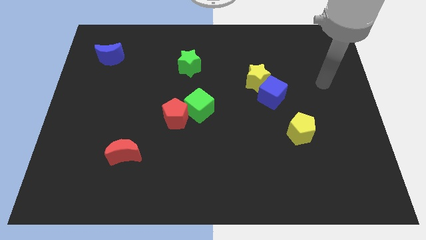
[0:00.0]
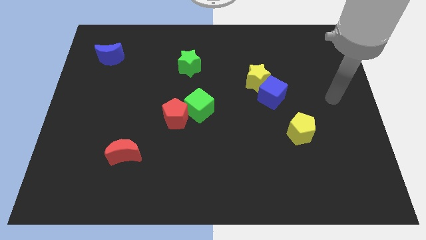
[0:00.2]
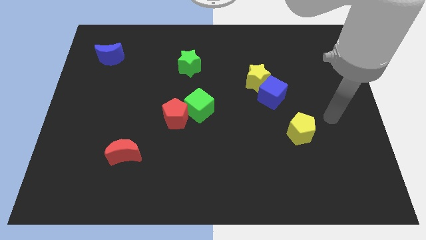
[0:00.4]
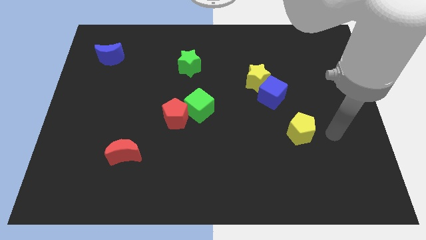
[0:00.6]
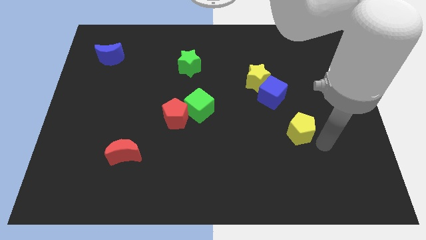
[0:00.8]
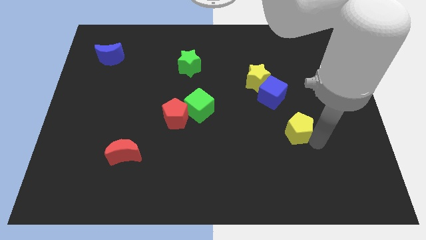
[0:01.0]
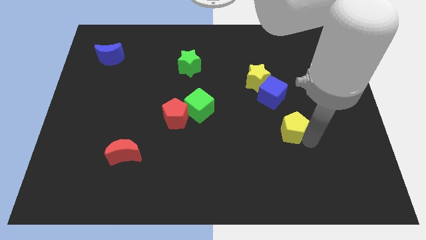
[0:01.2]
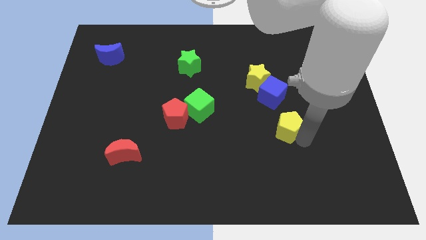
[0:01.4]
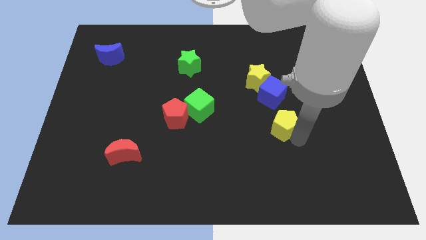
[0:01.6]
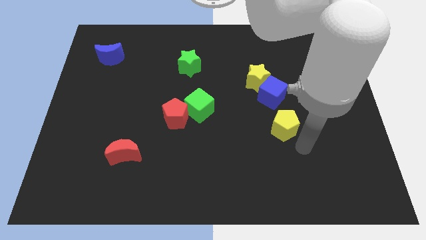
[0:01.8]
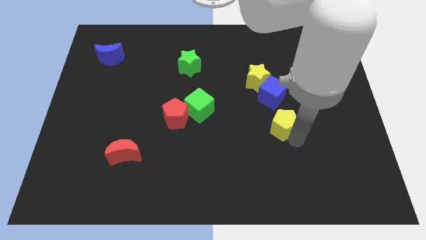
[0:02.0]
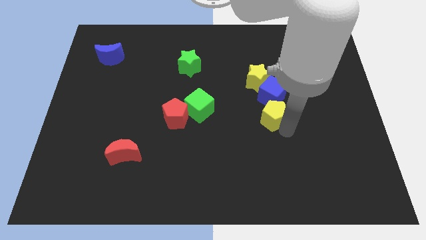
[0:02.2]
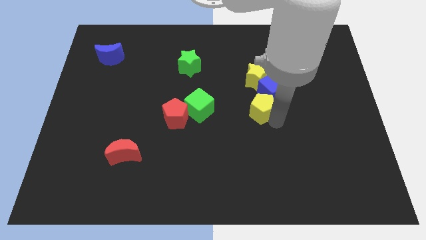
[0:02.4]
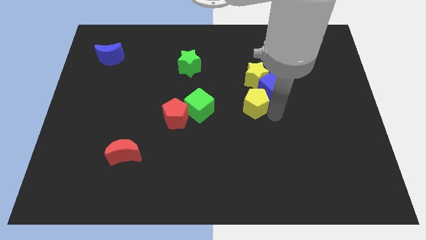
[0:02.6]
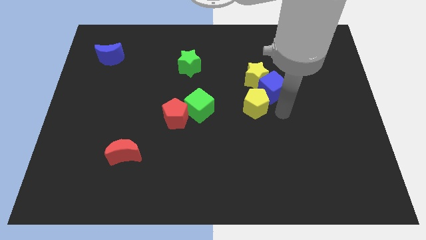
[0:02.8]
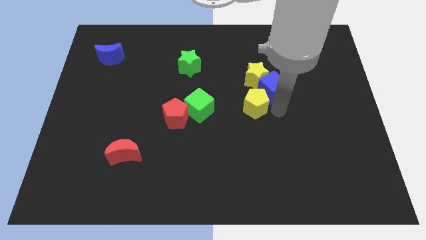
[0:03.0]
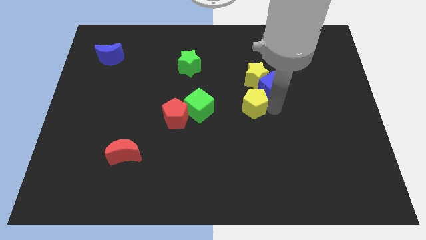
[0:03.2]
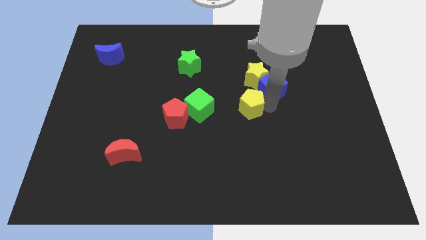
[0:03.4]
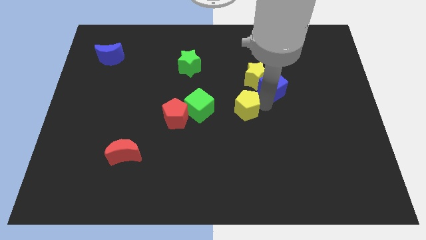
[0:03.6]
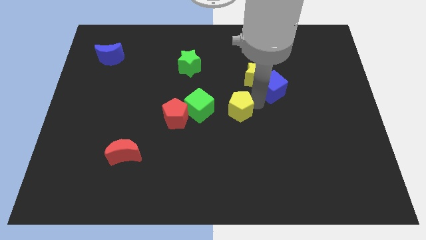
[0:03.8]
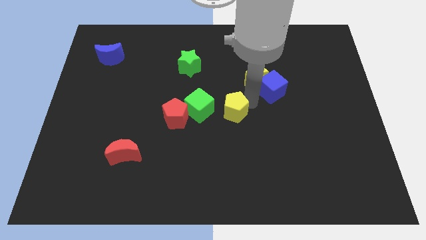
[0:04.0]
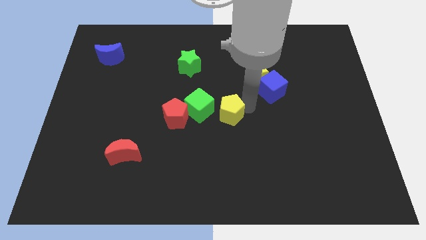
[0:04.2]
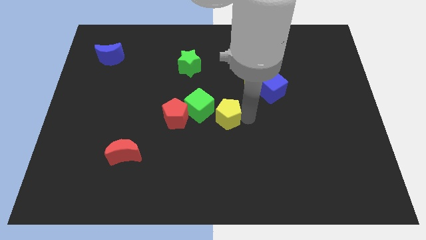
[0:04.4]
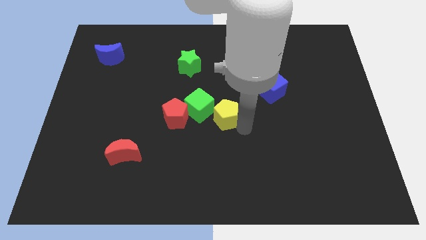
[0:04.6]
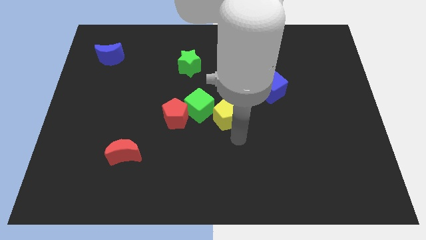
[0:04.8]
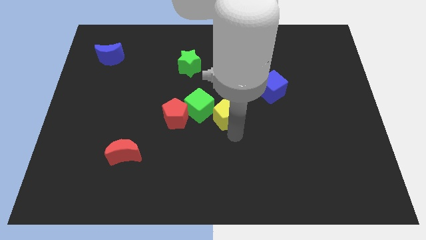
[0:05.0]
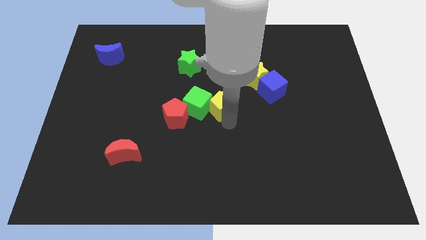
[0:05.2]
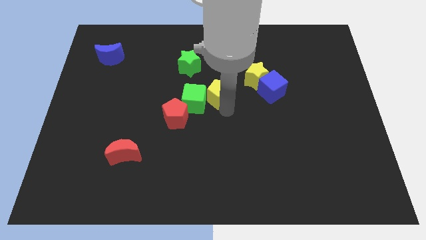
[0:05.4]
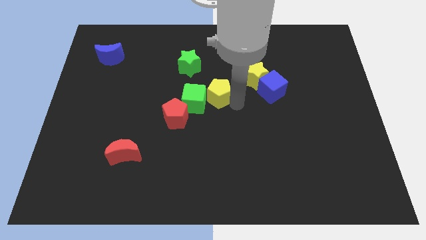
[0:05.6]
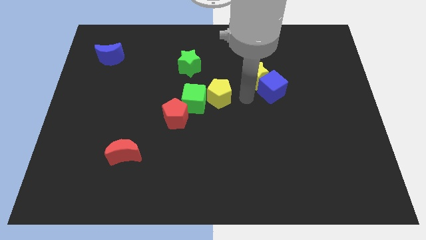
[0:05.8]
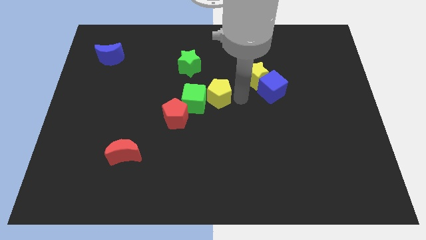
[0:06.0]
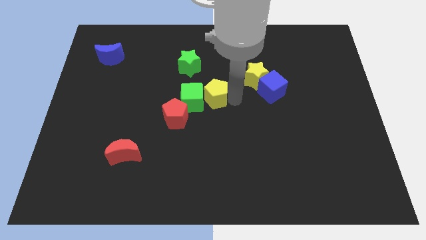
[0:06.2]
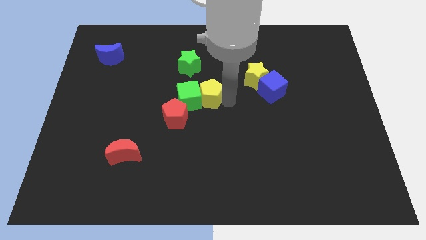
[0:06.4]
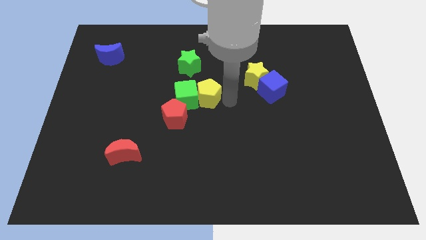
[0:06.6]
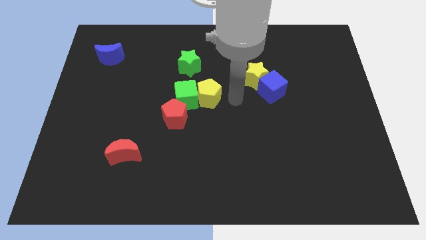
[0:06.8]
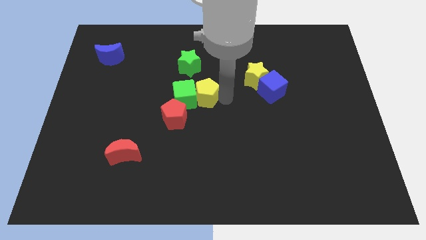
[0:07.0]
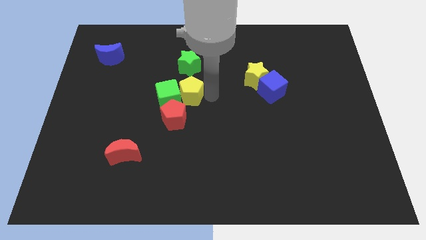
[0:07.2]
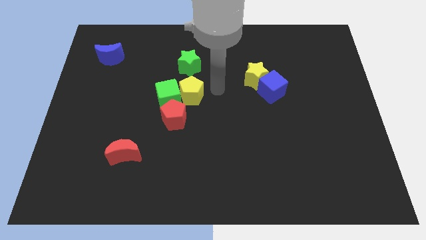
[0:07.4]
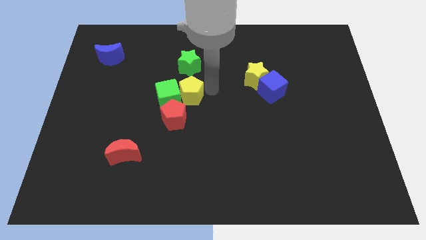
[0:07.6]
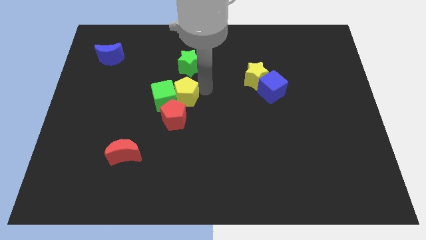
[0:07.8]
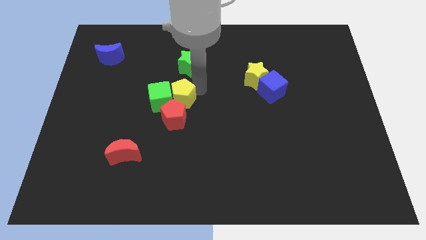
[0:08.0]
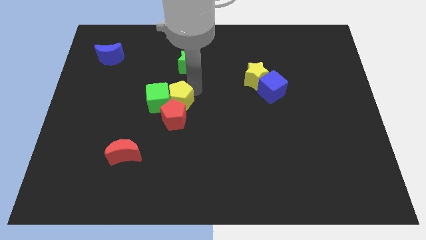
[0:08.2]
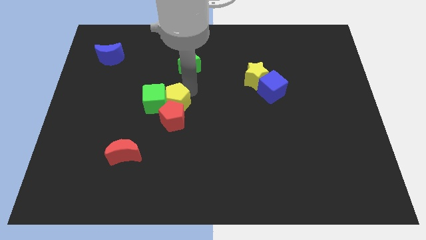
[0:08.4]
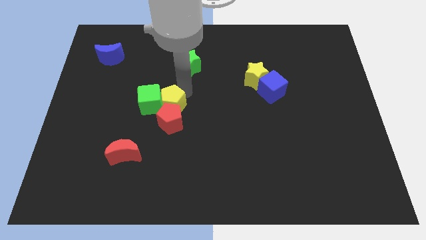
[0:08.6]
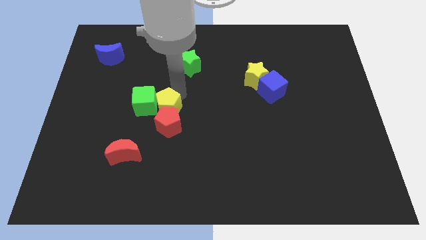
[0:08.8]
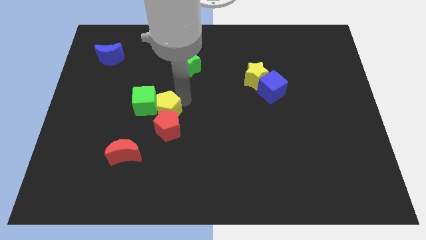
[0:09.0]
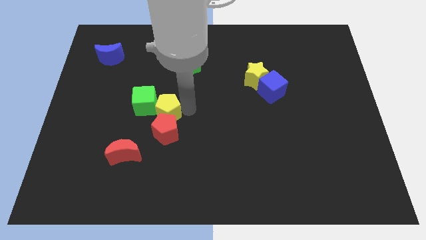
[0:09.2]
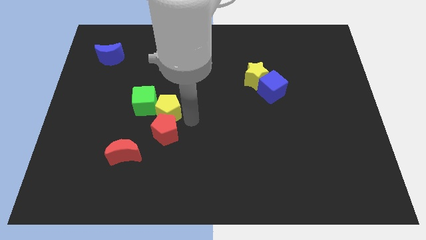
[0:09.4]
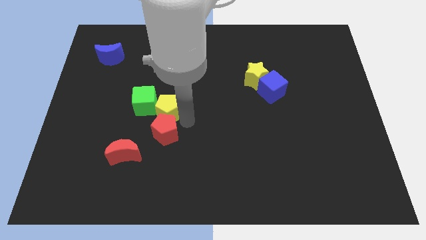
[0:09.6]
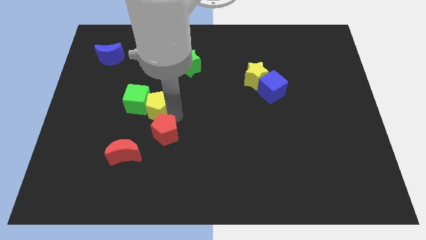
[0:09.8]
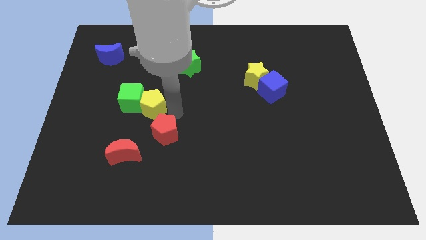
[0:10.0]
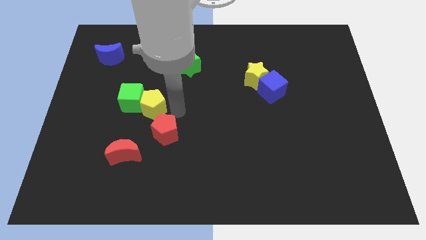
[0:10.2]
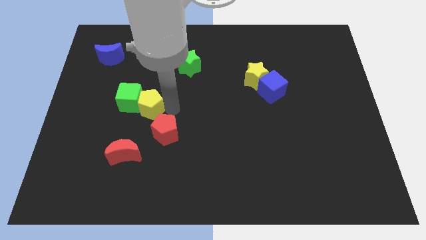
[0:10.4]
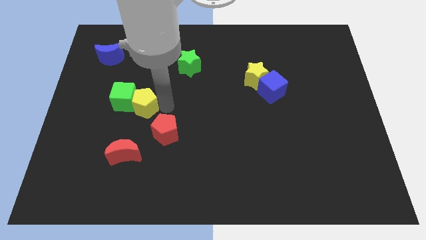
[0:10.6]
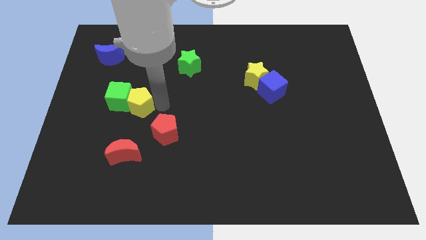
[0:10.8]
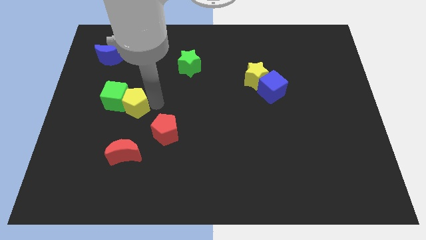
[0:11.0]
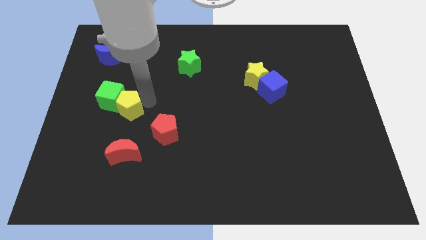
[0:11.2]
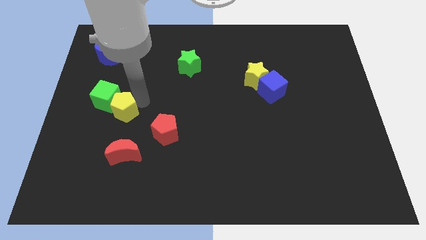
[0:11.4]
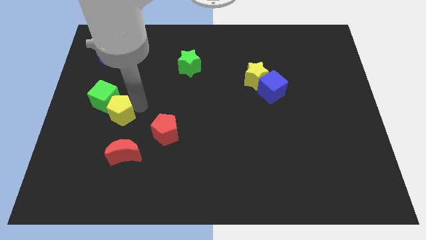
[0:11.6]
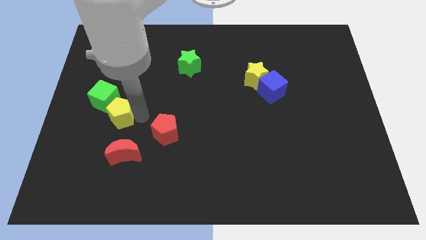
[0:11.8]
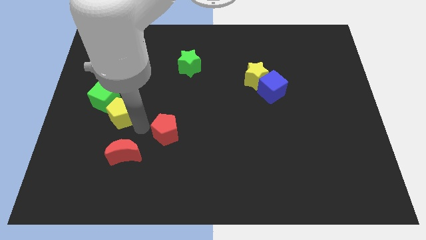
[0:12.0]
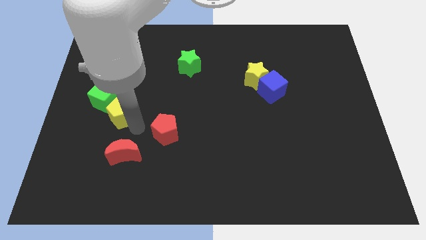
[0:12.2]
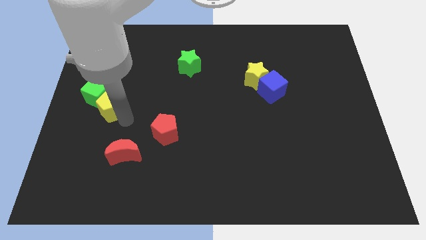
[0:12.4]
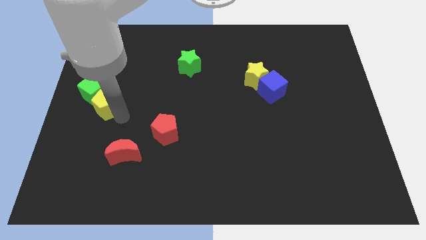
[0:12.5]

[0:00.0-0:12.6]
push the yellow pentagon to the center left
